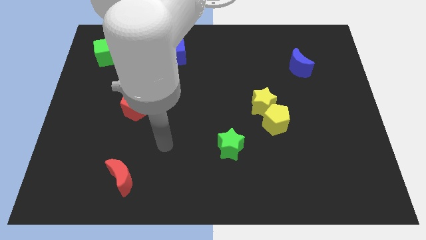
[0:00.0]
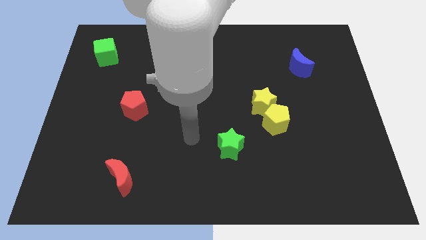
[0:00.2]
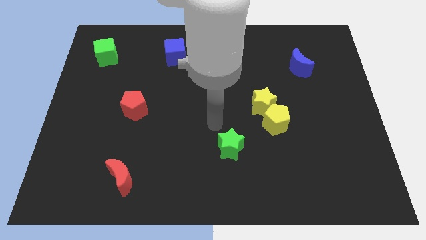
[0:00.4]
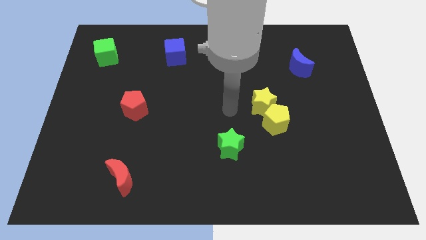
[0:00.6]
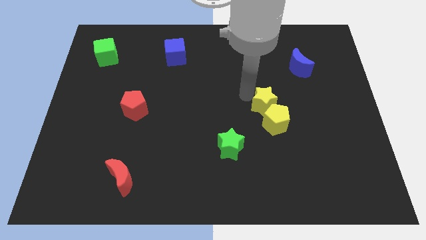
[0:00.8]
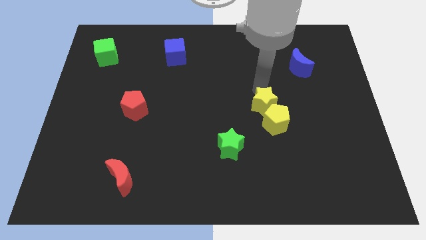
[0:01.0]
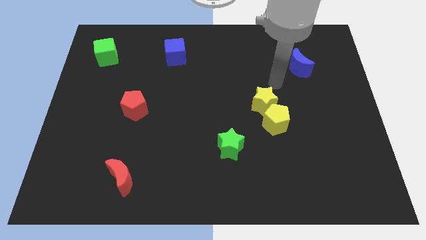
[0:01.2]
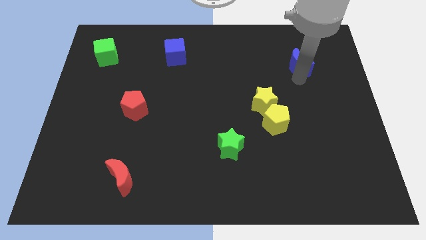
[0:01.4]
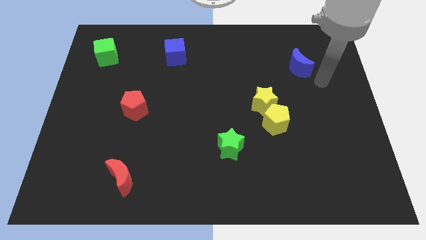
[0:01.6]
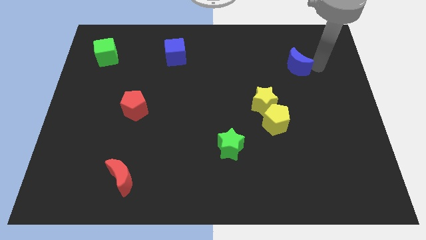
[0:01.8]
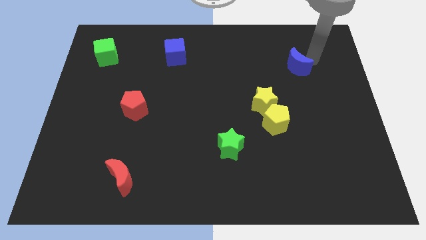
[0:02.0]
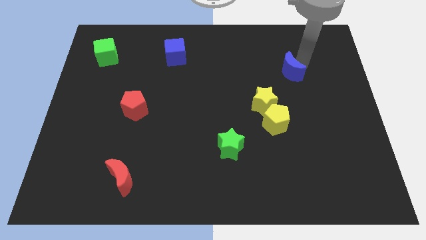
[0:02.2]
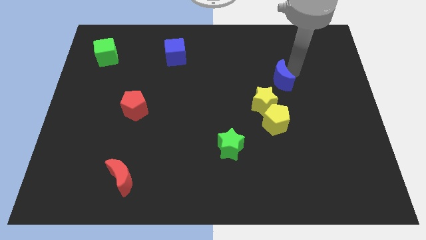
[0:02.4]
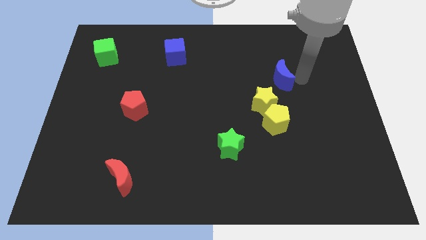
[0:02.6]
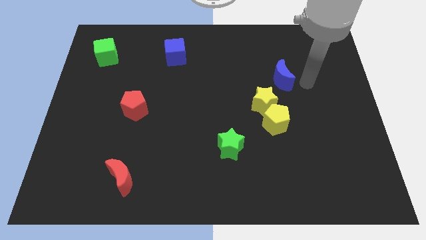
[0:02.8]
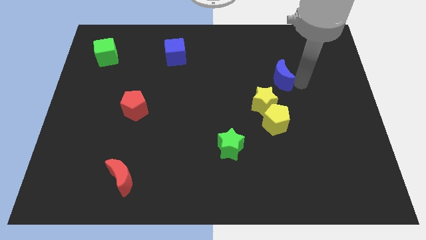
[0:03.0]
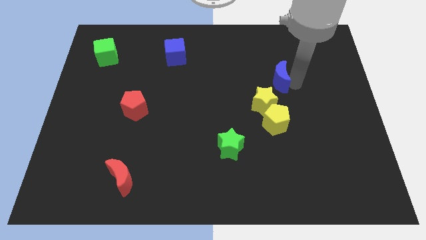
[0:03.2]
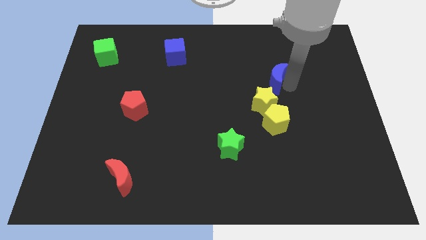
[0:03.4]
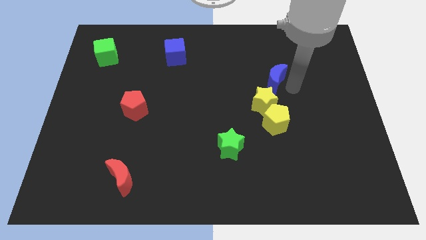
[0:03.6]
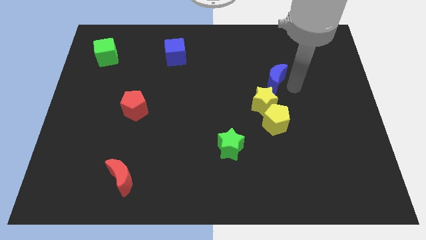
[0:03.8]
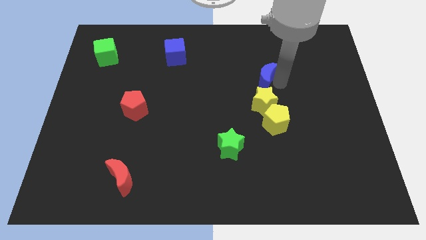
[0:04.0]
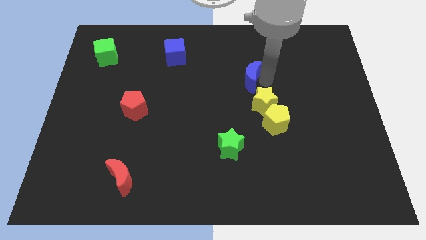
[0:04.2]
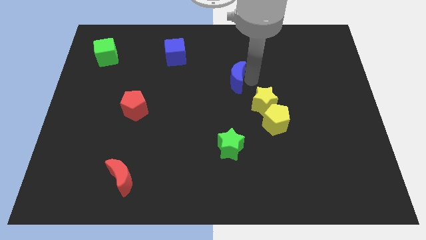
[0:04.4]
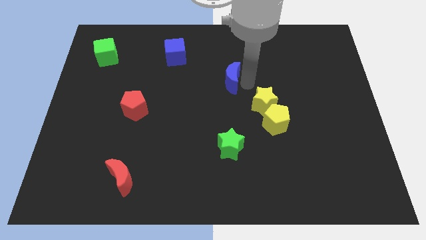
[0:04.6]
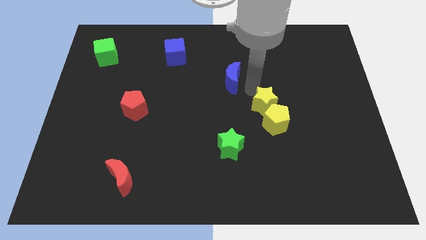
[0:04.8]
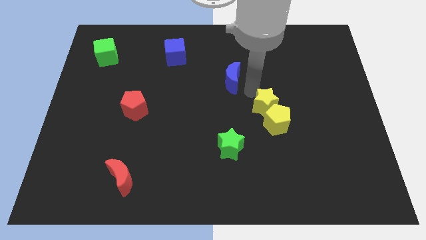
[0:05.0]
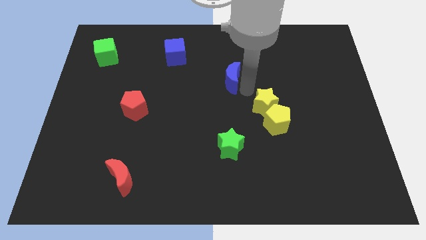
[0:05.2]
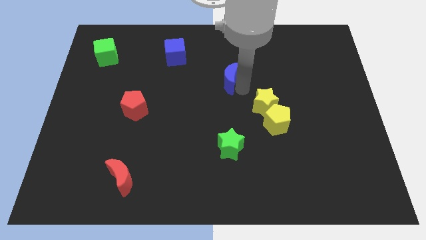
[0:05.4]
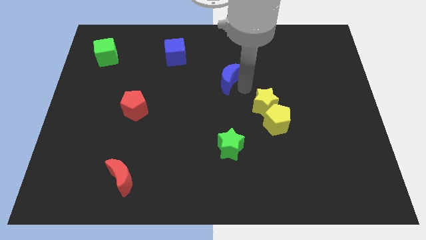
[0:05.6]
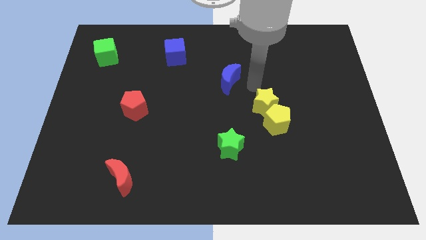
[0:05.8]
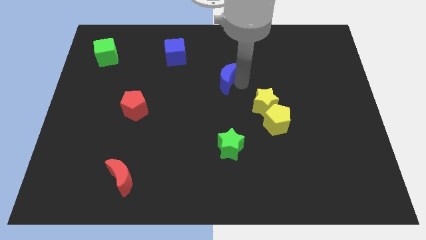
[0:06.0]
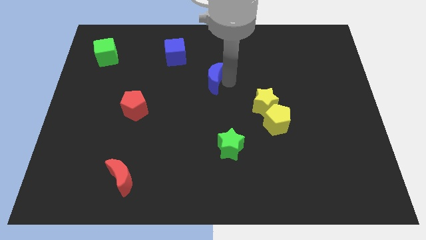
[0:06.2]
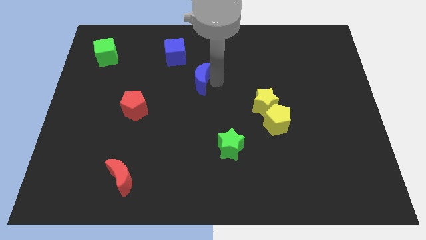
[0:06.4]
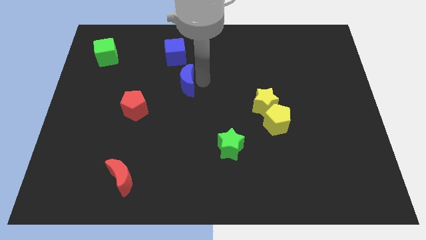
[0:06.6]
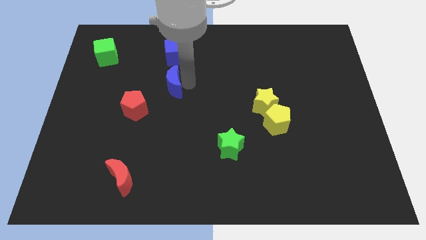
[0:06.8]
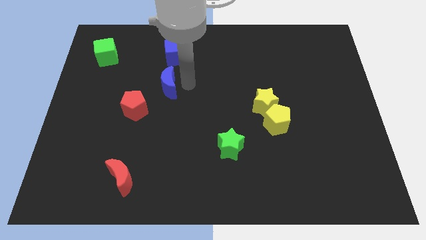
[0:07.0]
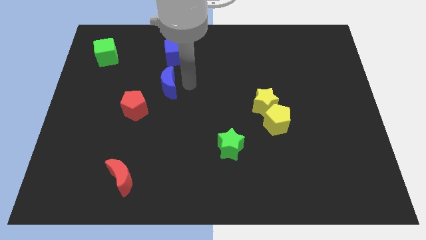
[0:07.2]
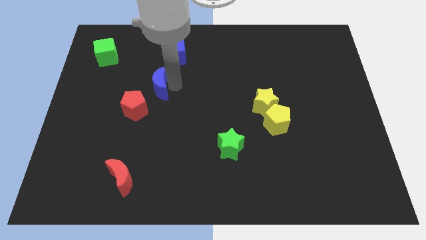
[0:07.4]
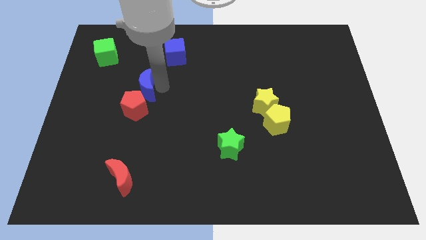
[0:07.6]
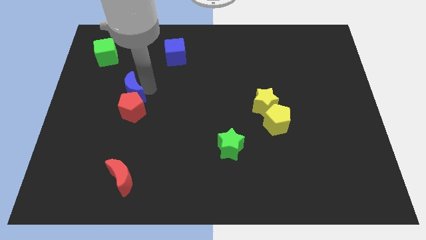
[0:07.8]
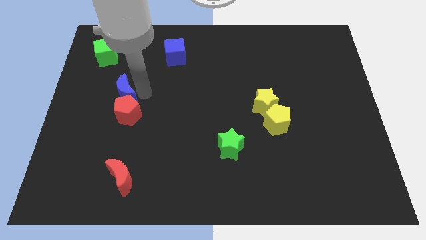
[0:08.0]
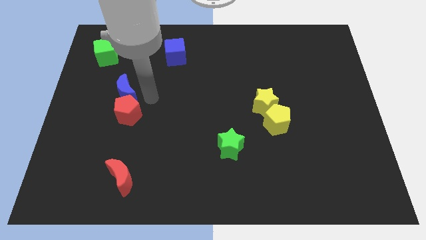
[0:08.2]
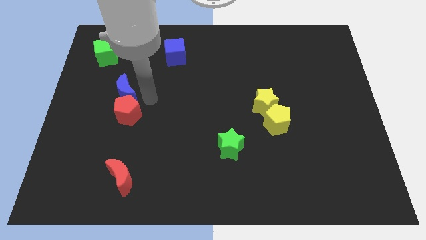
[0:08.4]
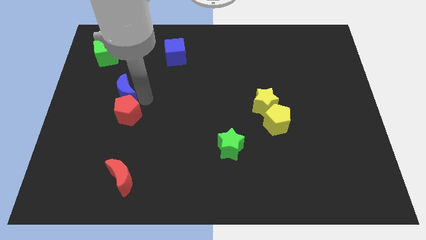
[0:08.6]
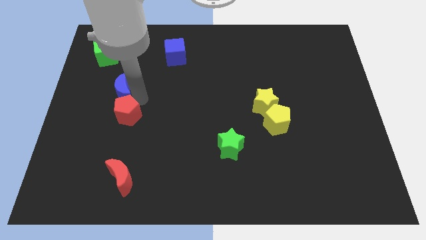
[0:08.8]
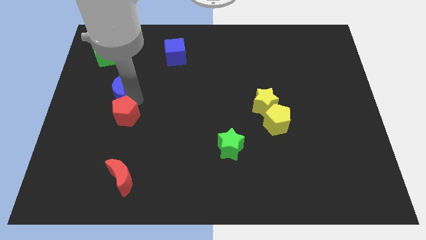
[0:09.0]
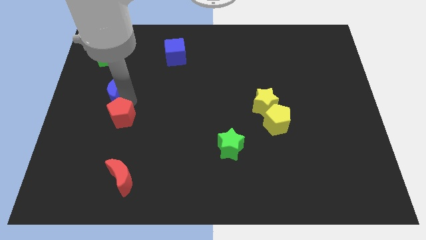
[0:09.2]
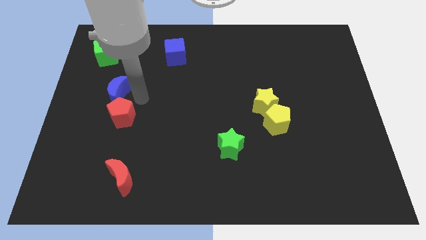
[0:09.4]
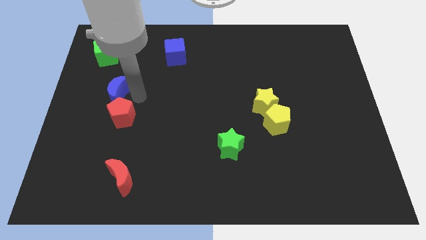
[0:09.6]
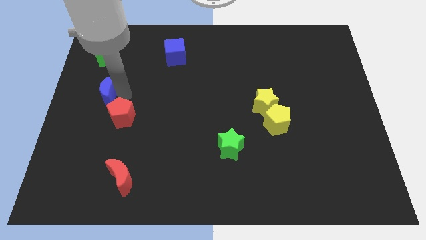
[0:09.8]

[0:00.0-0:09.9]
slide the blue moon to the center left

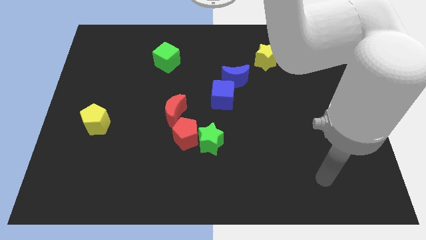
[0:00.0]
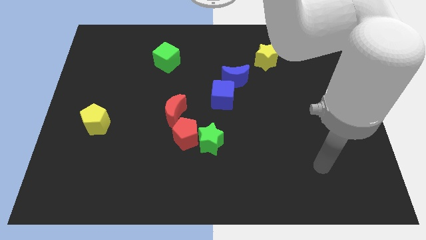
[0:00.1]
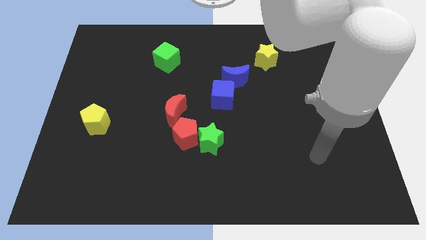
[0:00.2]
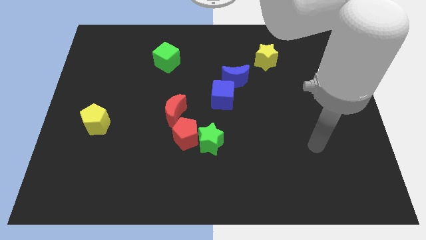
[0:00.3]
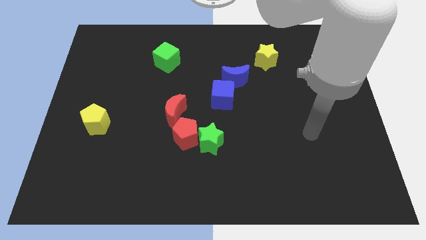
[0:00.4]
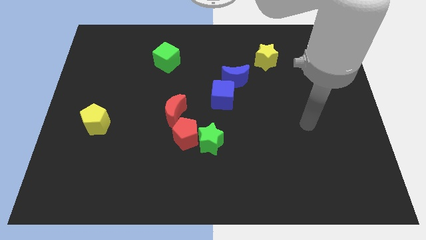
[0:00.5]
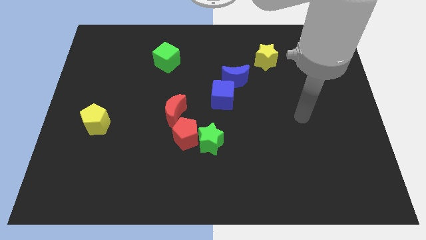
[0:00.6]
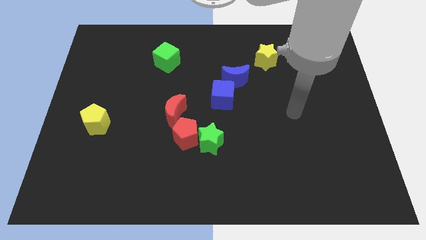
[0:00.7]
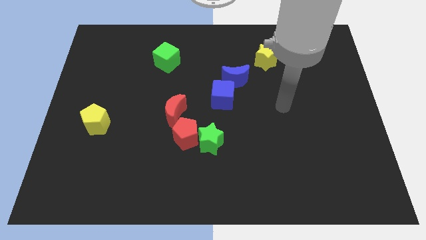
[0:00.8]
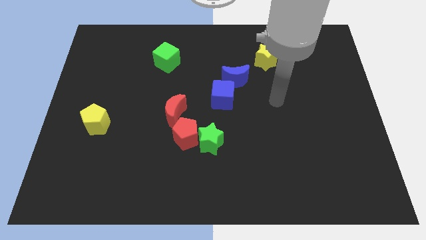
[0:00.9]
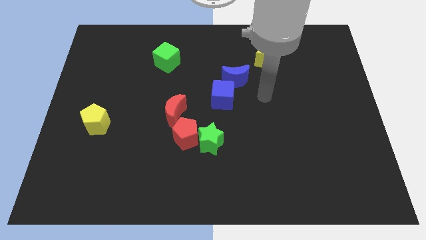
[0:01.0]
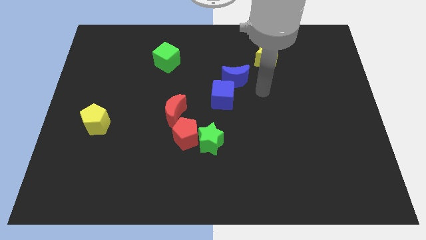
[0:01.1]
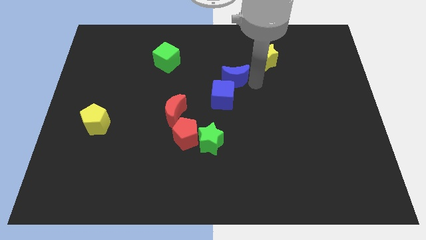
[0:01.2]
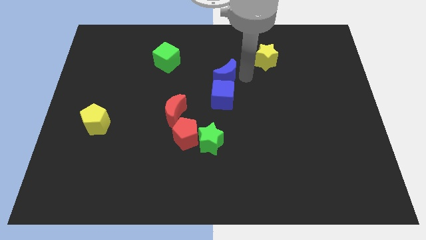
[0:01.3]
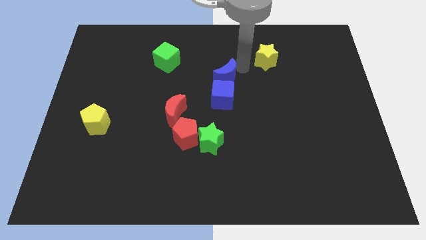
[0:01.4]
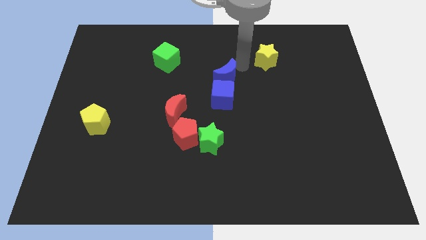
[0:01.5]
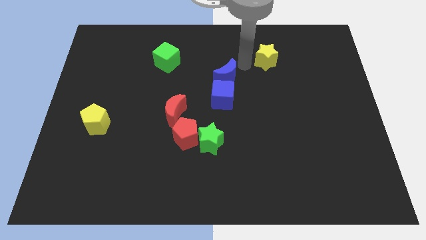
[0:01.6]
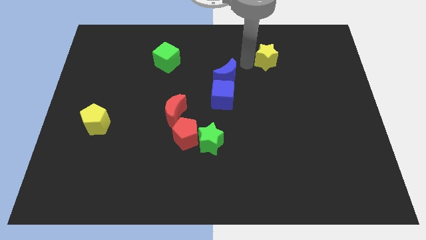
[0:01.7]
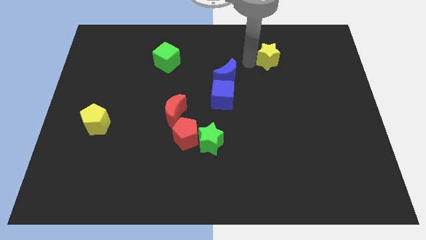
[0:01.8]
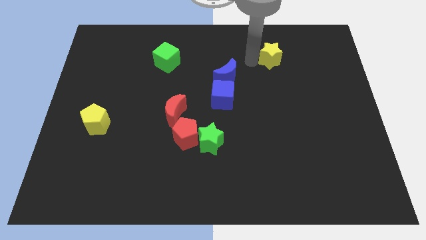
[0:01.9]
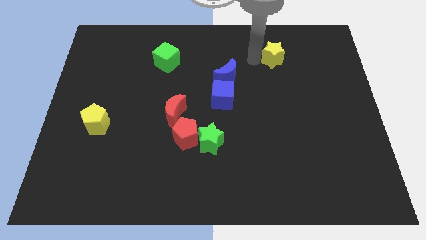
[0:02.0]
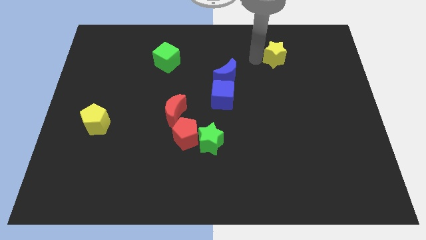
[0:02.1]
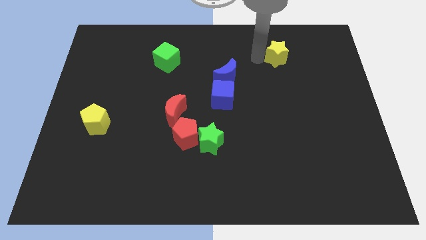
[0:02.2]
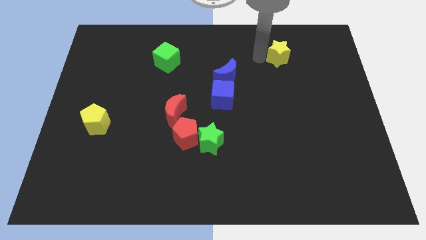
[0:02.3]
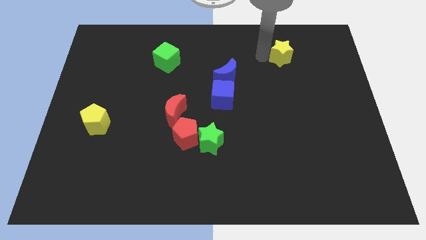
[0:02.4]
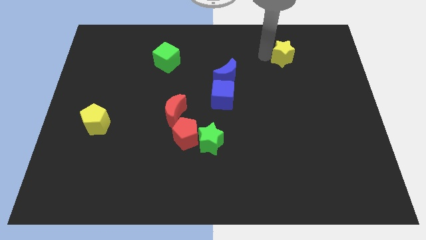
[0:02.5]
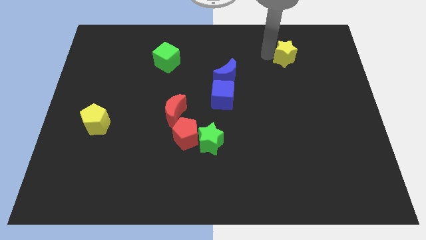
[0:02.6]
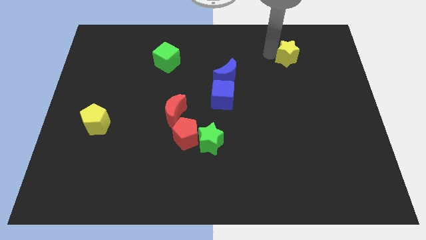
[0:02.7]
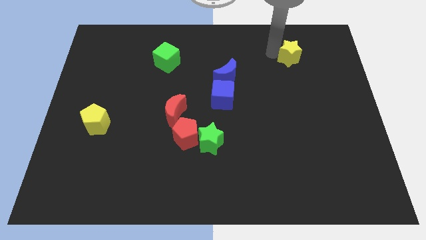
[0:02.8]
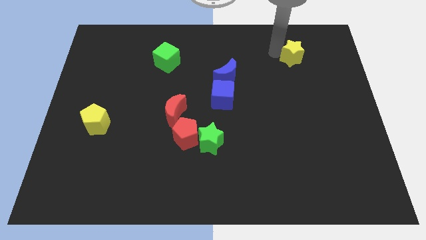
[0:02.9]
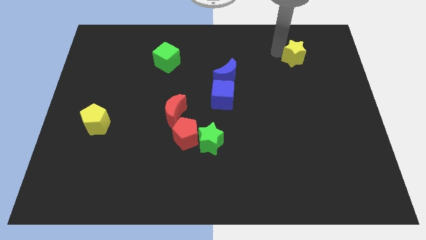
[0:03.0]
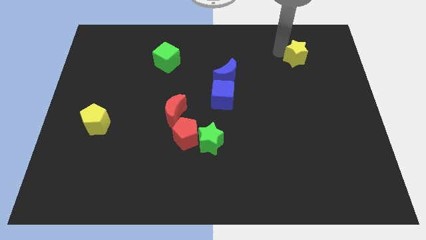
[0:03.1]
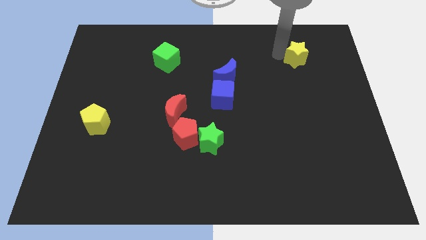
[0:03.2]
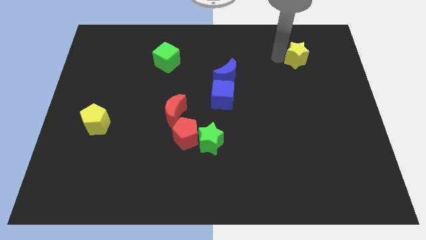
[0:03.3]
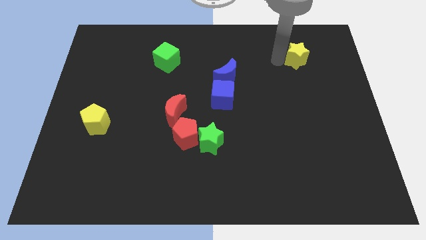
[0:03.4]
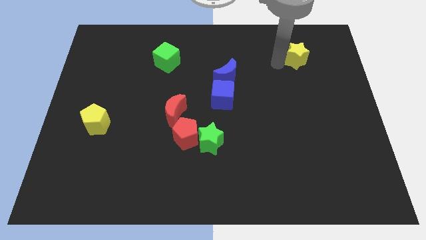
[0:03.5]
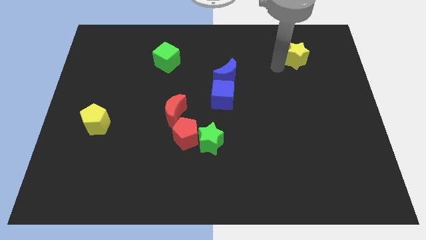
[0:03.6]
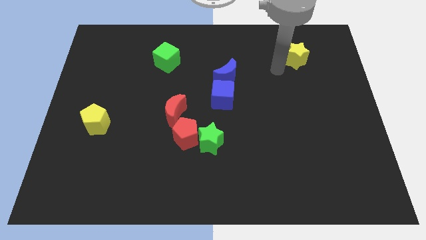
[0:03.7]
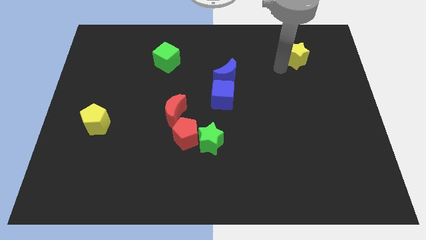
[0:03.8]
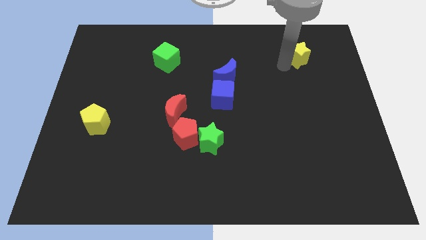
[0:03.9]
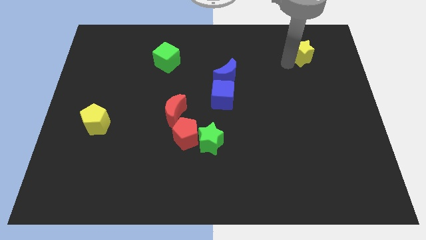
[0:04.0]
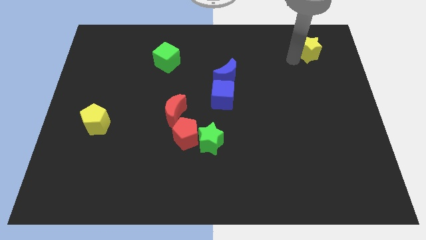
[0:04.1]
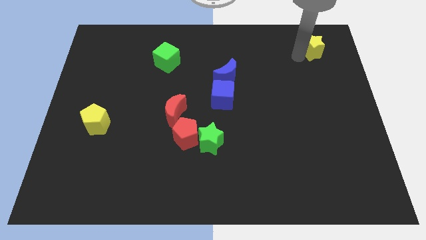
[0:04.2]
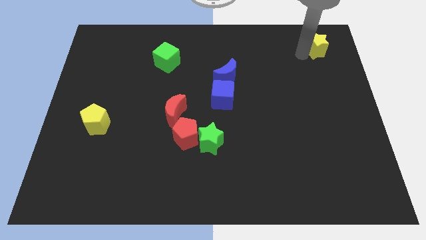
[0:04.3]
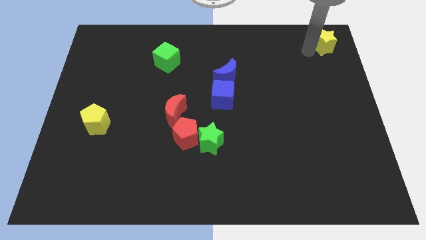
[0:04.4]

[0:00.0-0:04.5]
put the yellow star to the top right
